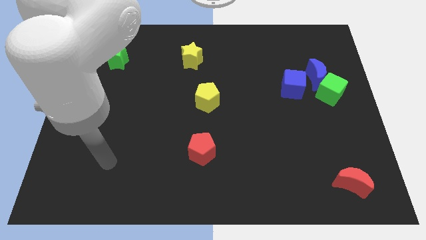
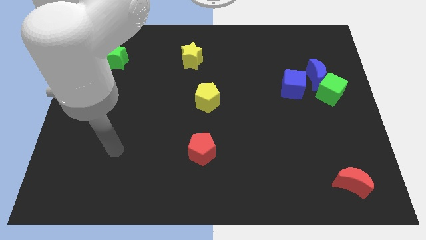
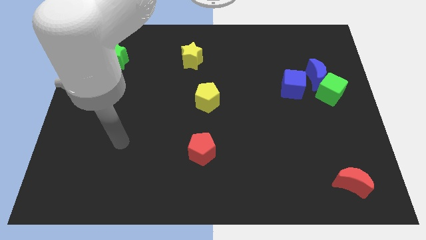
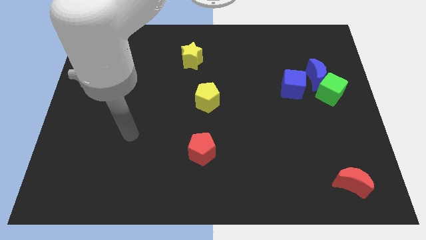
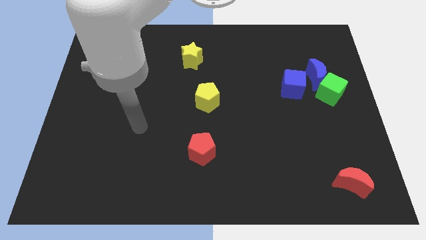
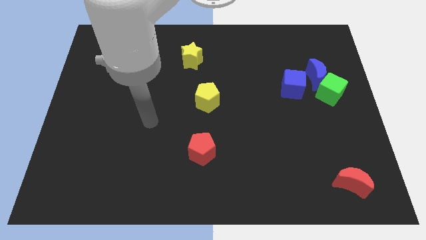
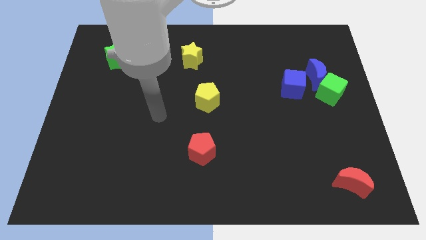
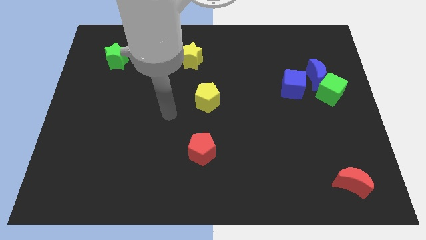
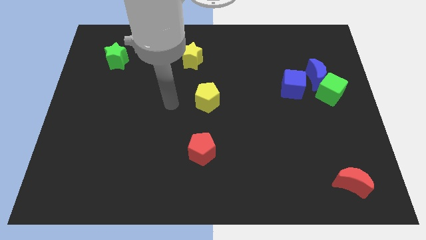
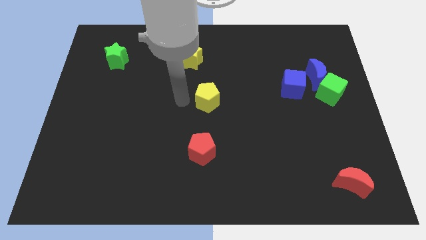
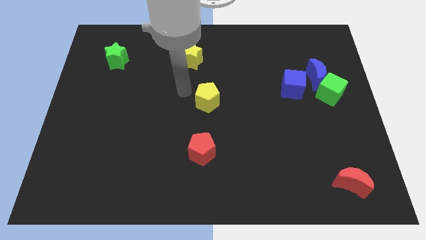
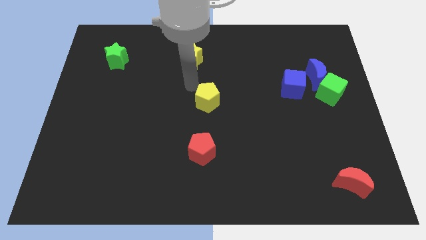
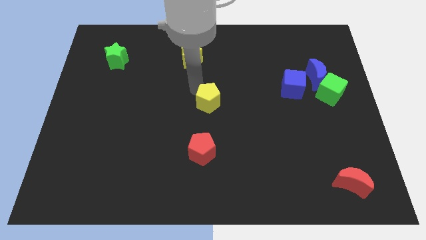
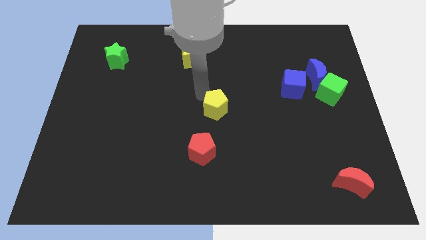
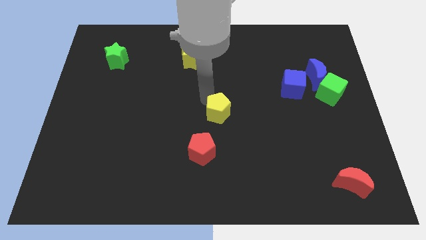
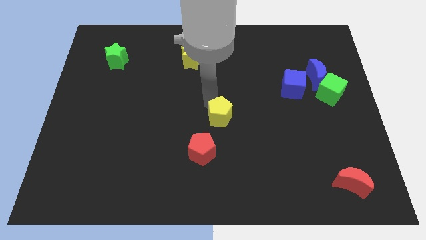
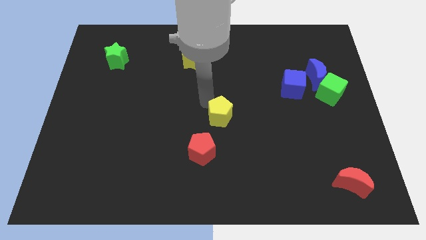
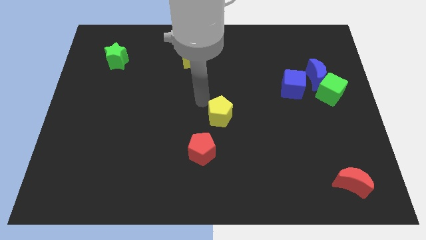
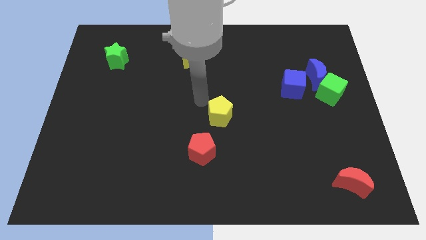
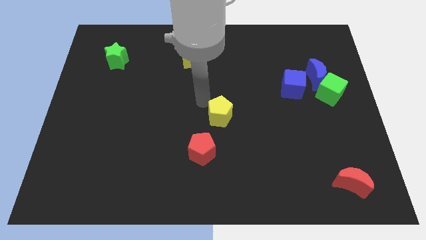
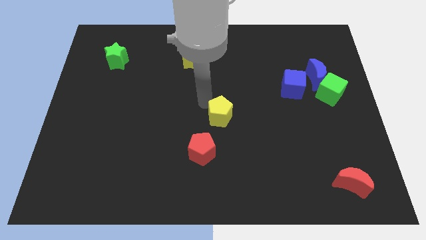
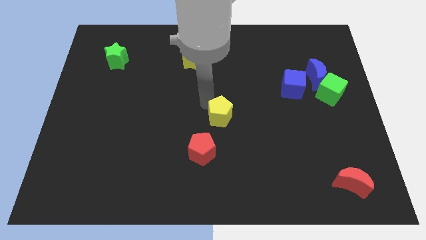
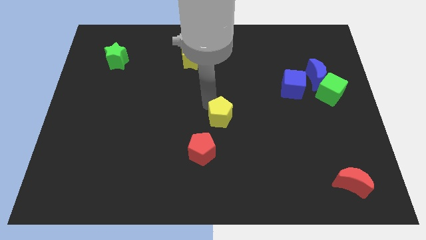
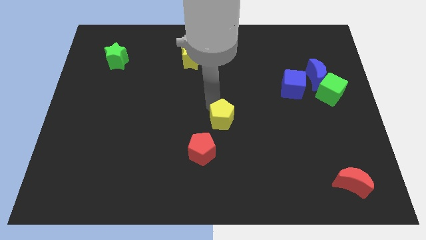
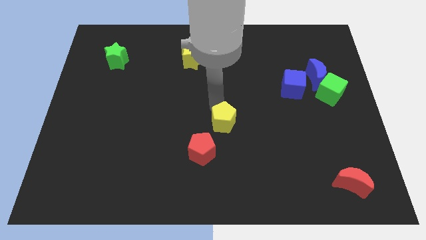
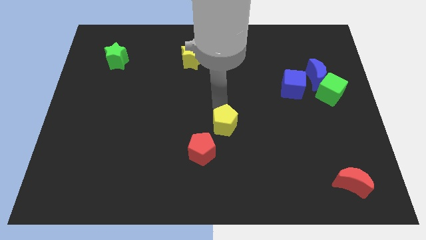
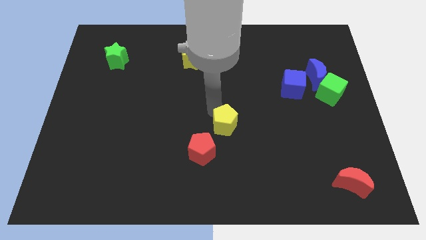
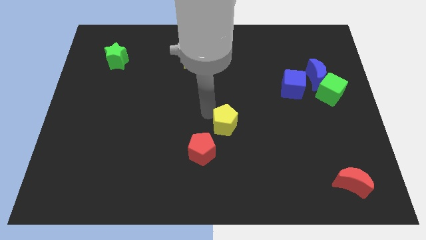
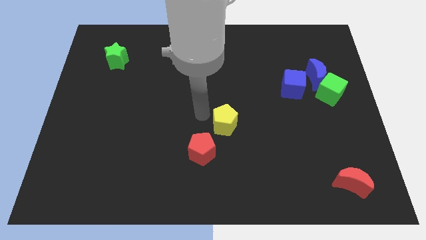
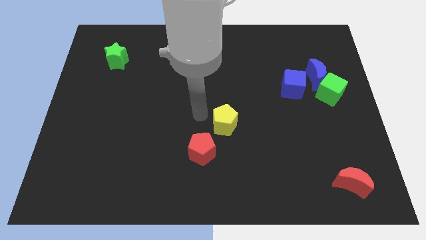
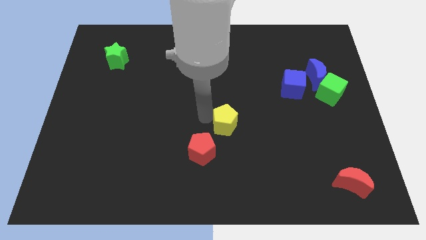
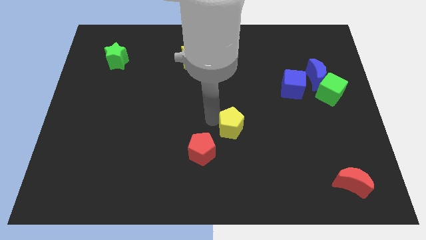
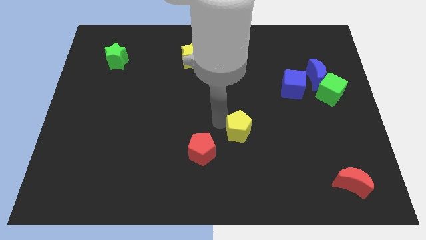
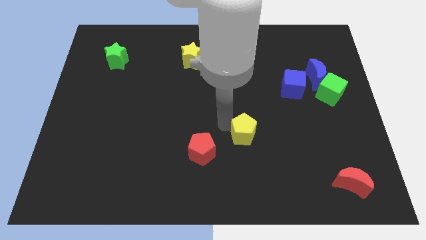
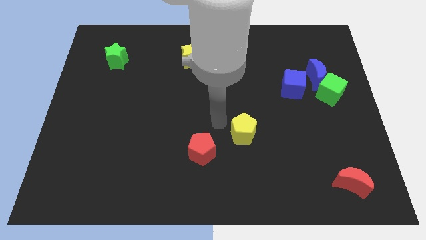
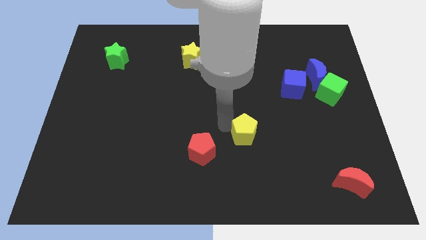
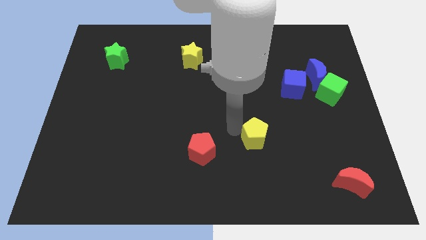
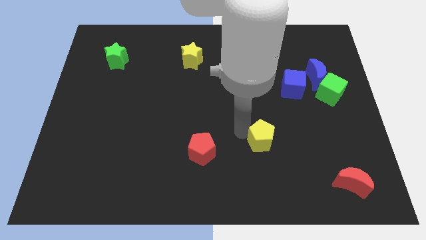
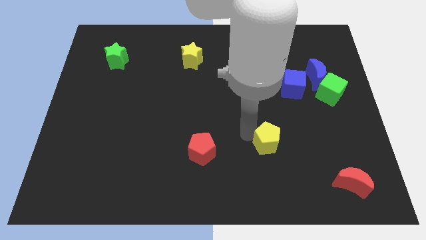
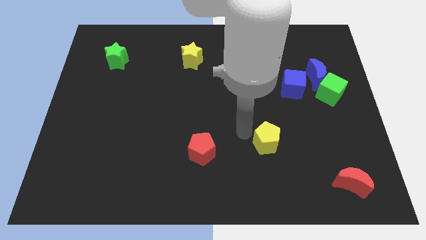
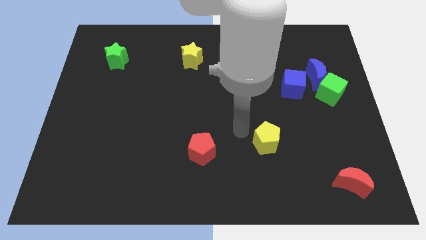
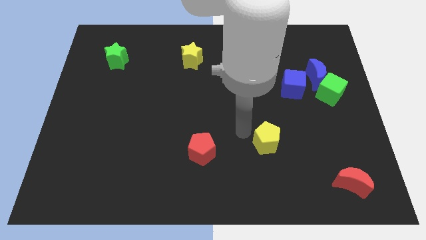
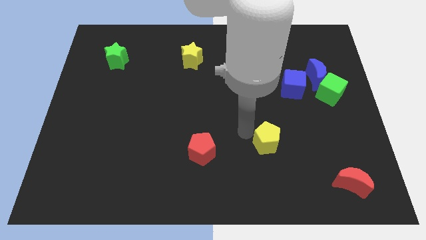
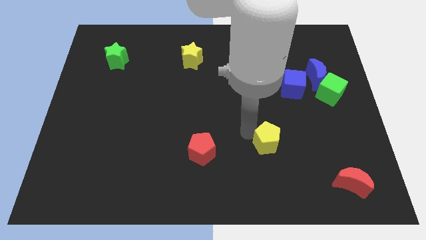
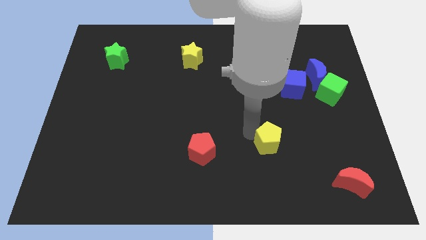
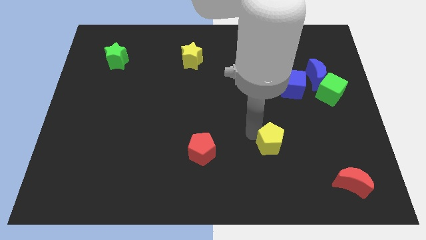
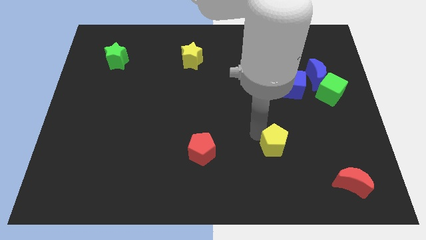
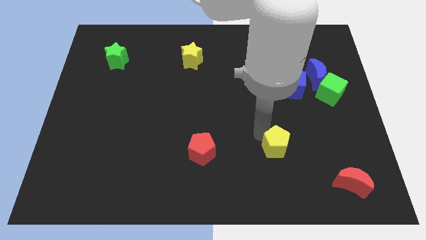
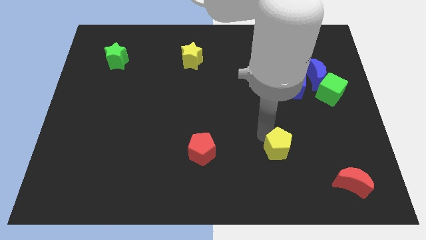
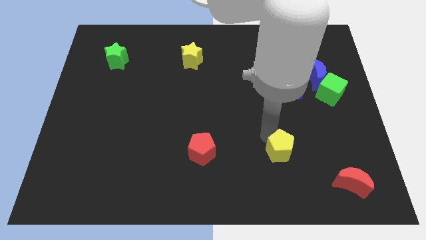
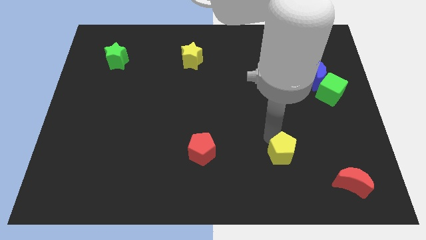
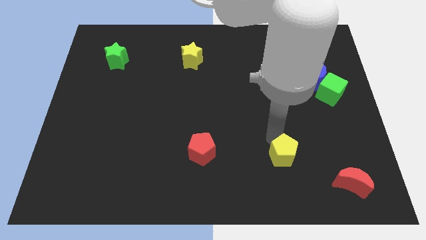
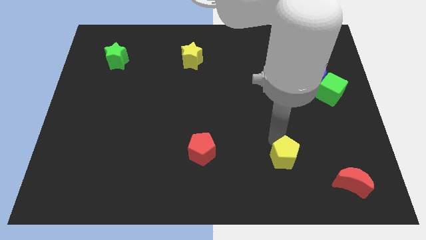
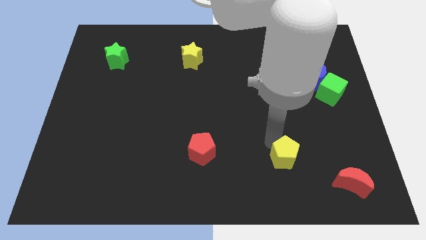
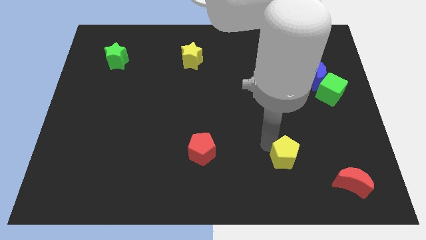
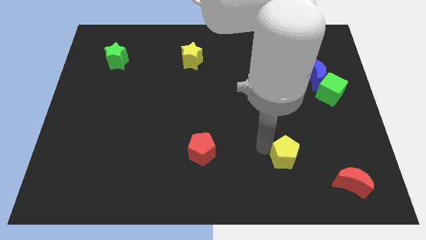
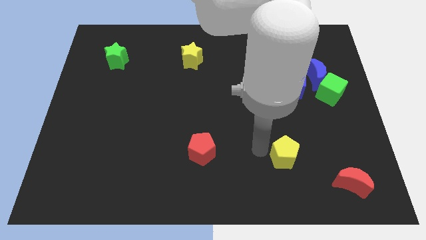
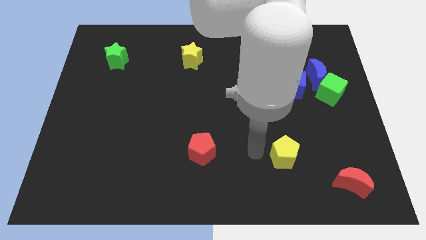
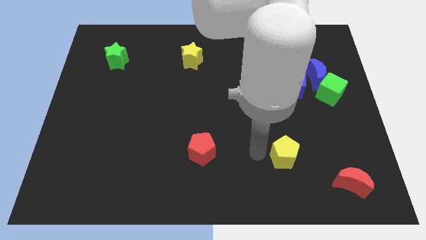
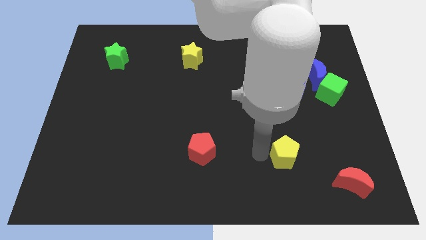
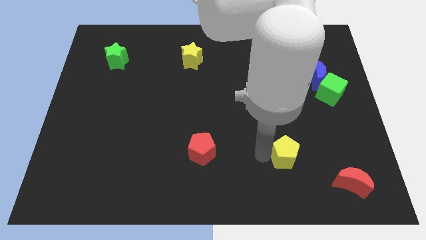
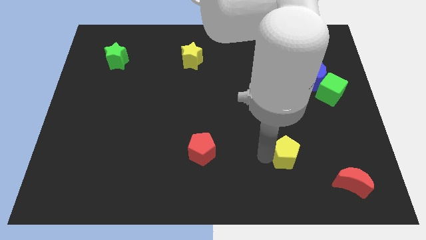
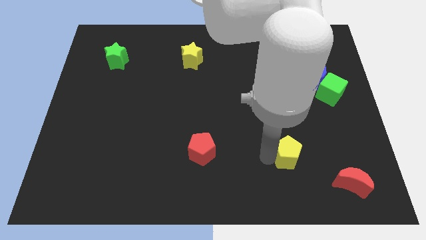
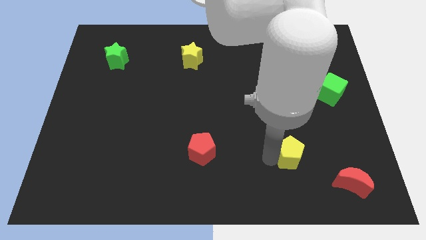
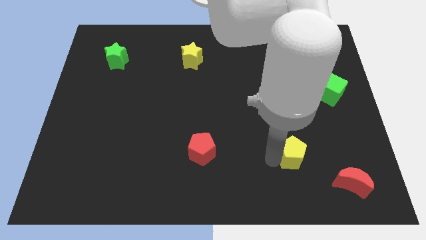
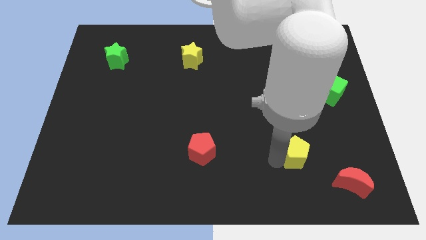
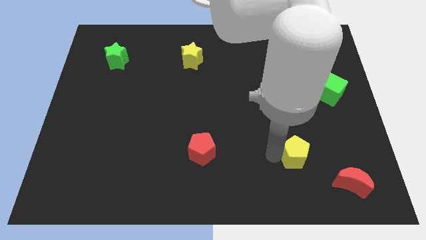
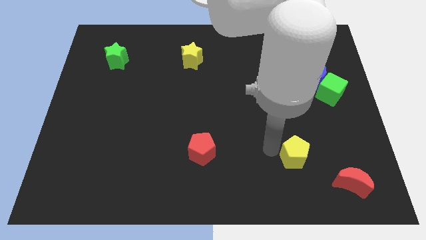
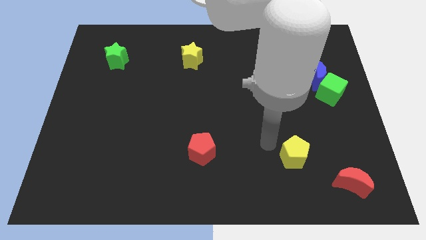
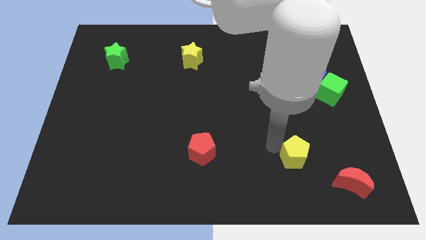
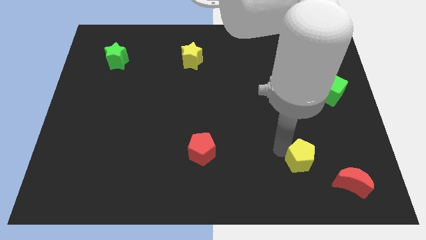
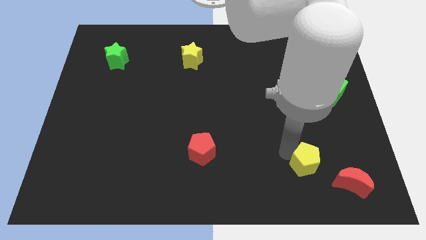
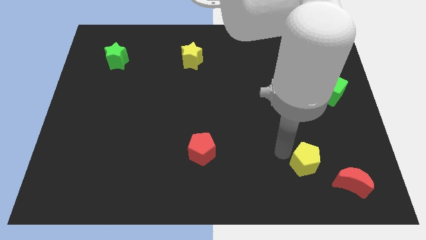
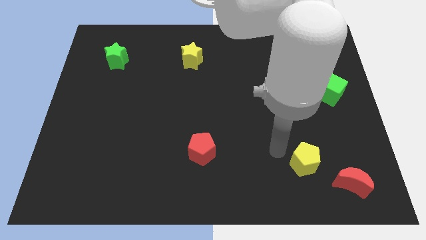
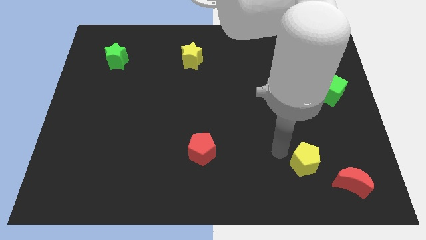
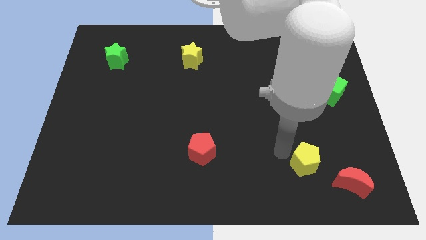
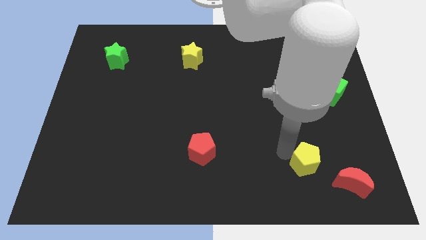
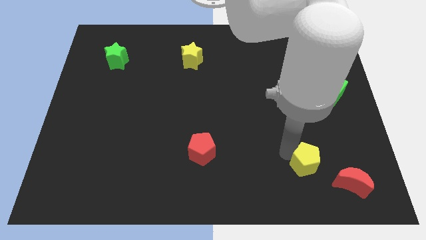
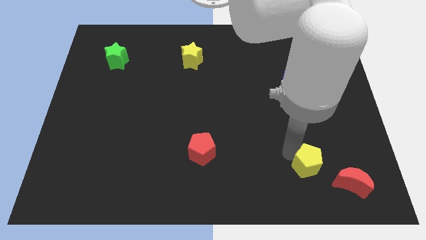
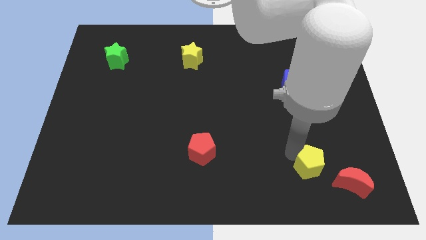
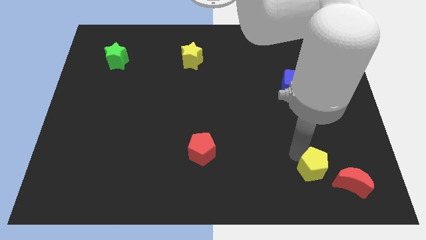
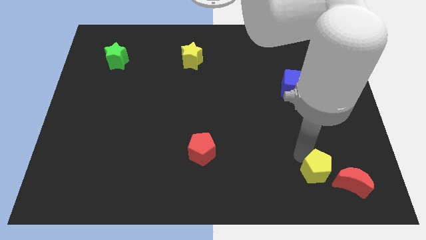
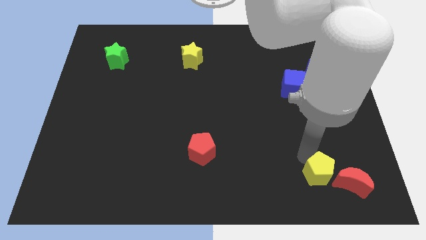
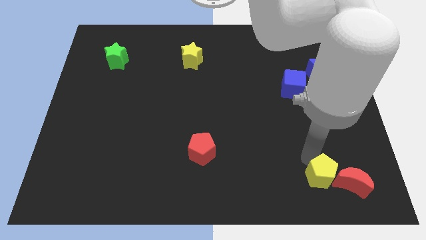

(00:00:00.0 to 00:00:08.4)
move the yellow pentagon to the red moon
